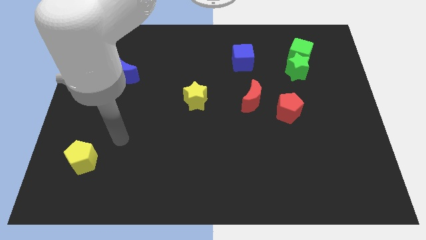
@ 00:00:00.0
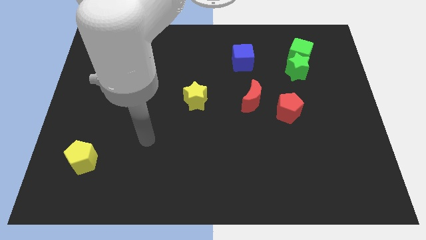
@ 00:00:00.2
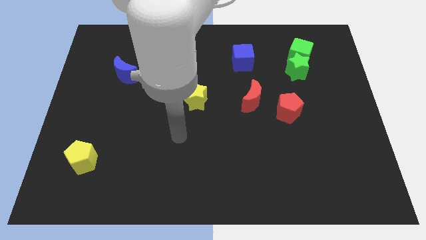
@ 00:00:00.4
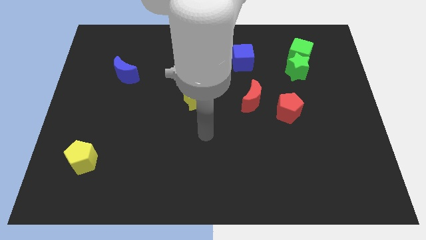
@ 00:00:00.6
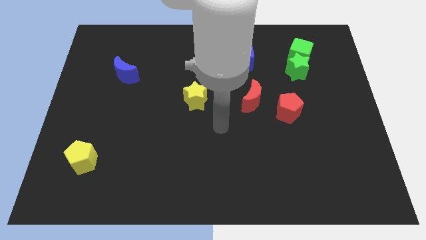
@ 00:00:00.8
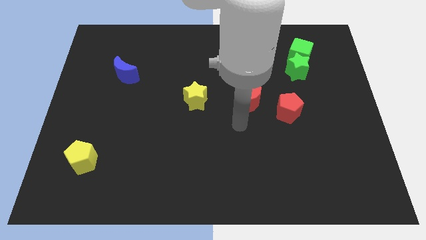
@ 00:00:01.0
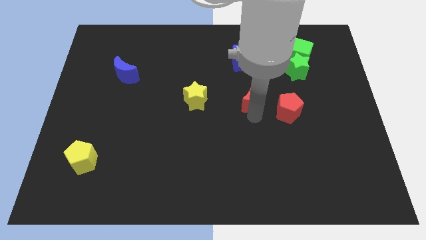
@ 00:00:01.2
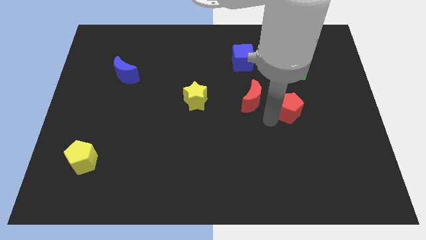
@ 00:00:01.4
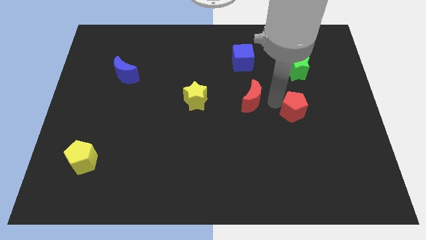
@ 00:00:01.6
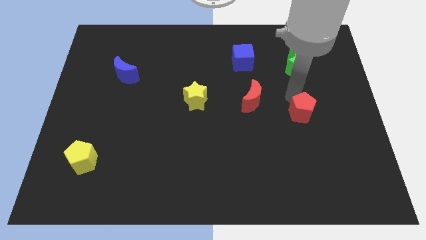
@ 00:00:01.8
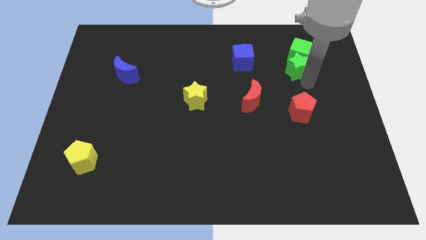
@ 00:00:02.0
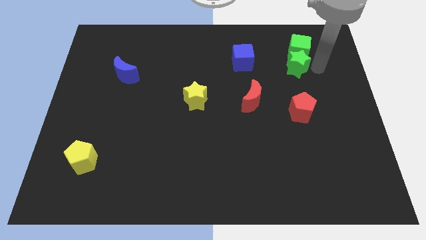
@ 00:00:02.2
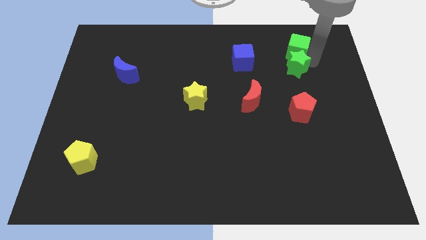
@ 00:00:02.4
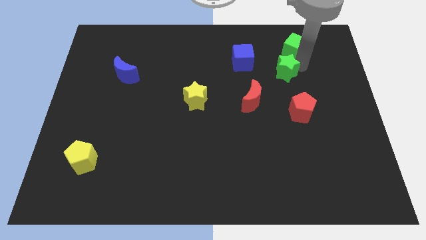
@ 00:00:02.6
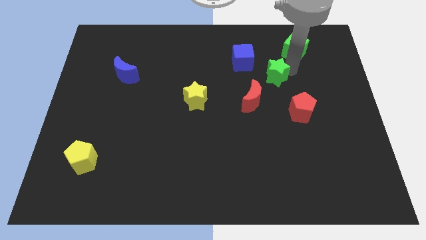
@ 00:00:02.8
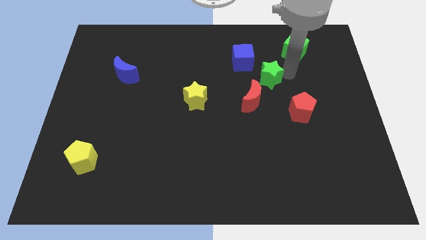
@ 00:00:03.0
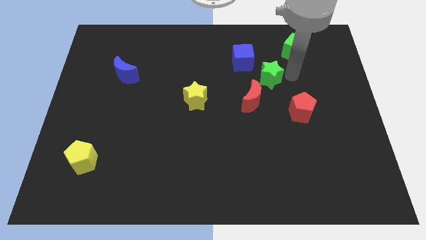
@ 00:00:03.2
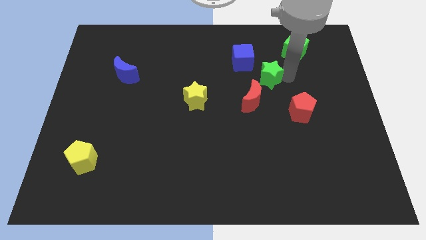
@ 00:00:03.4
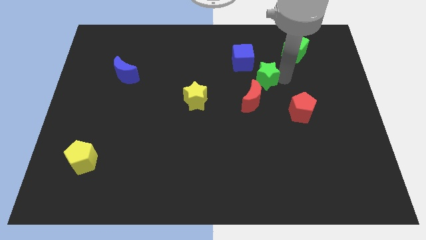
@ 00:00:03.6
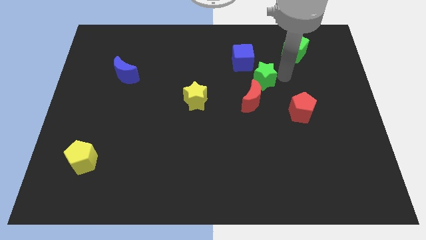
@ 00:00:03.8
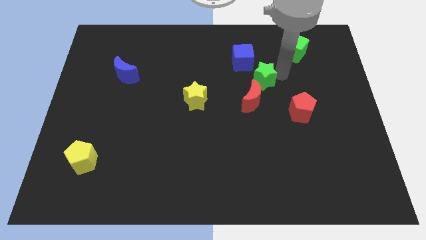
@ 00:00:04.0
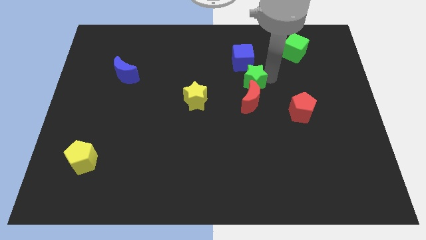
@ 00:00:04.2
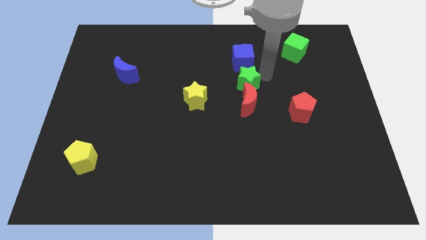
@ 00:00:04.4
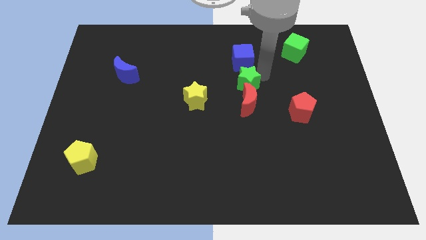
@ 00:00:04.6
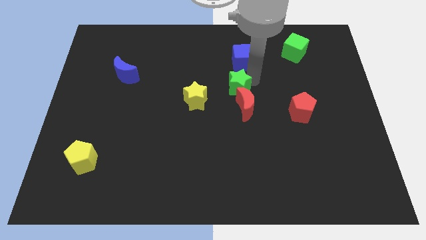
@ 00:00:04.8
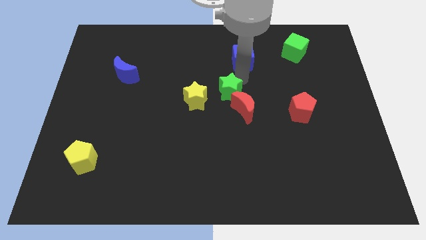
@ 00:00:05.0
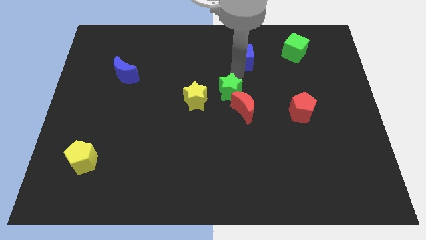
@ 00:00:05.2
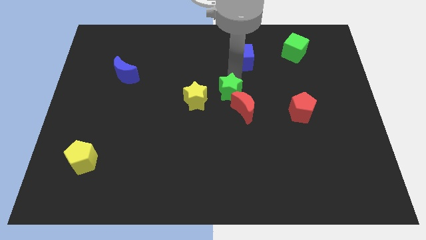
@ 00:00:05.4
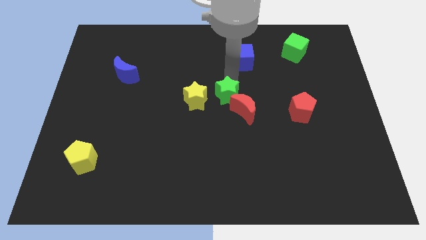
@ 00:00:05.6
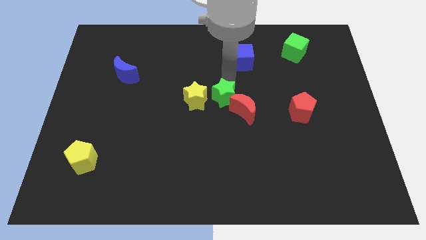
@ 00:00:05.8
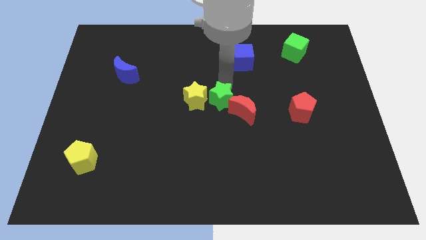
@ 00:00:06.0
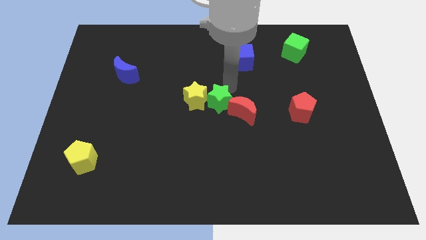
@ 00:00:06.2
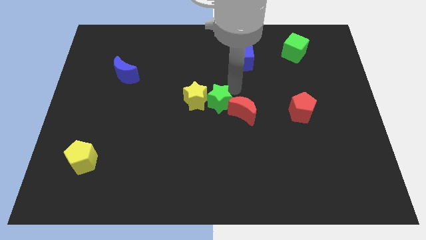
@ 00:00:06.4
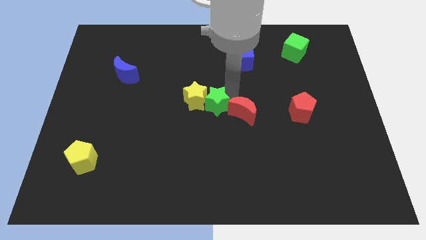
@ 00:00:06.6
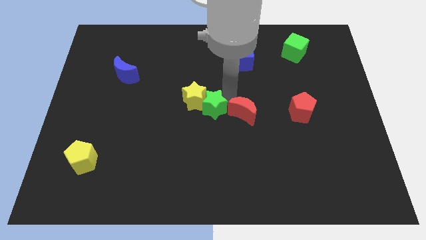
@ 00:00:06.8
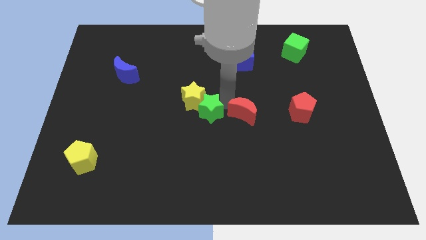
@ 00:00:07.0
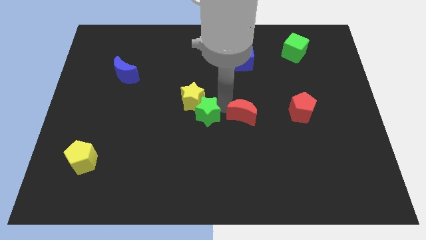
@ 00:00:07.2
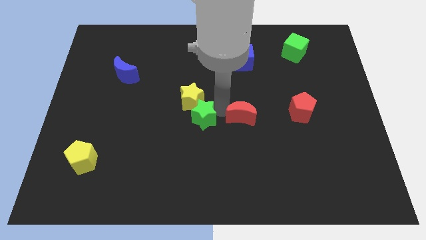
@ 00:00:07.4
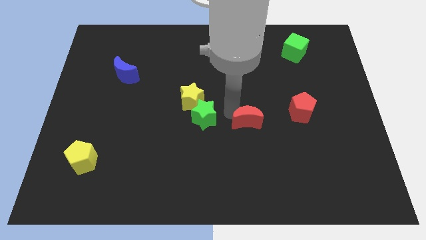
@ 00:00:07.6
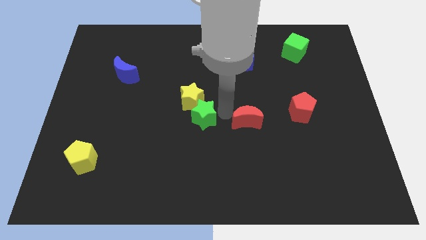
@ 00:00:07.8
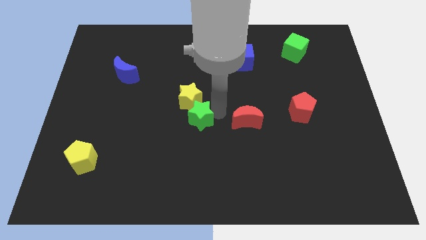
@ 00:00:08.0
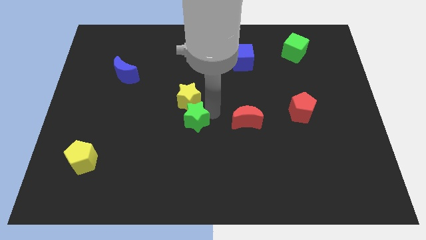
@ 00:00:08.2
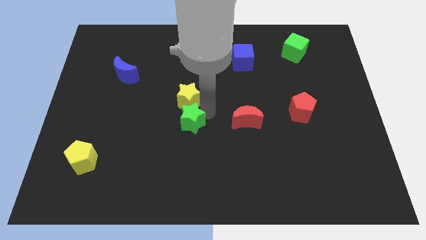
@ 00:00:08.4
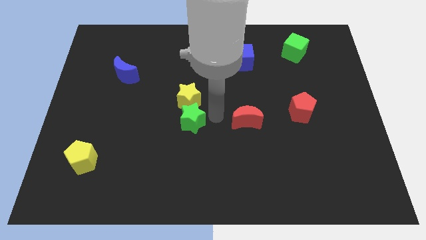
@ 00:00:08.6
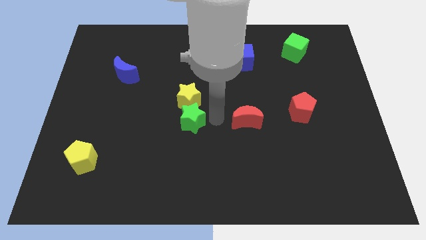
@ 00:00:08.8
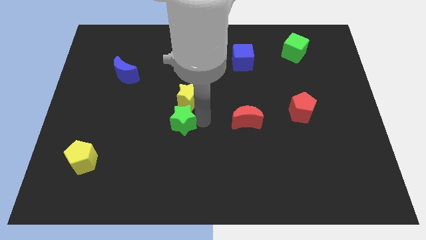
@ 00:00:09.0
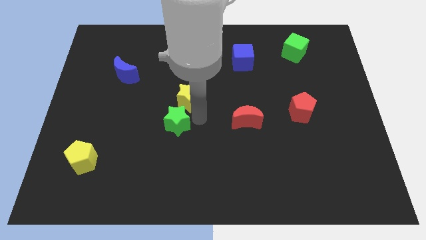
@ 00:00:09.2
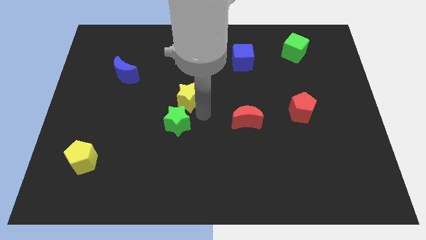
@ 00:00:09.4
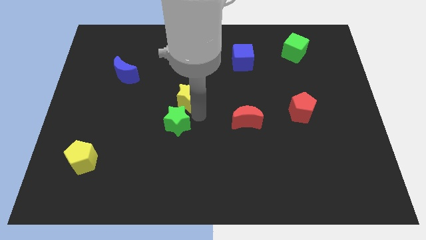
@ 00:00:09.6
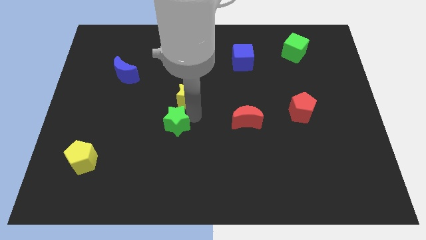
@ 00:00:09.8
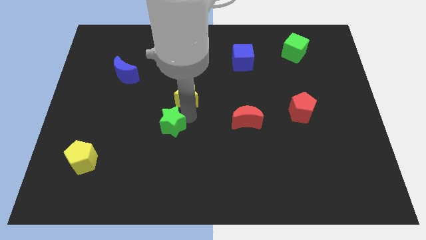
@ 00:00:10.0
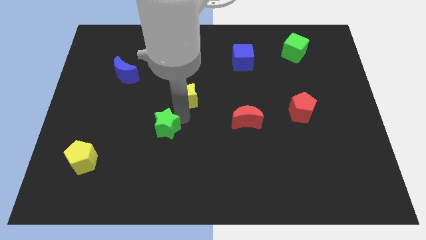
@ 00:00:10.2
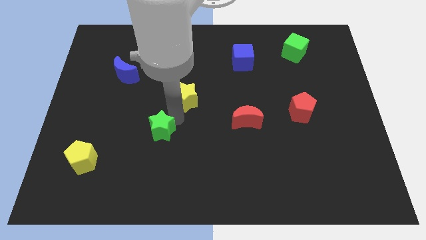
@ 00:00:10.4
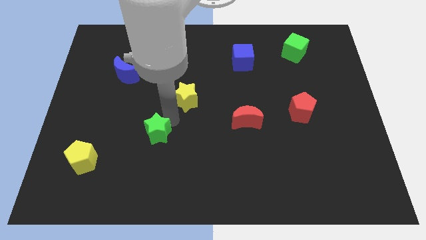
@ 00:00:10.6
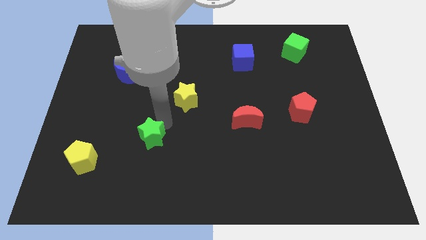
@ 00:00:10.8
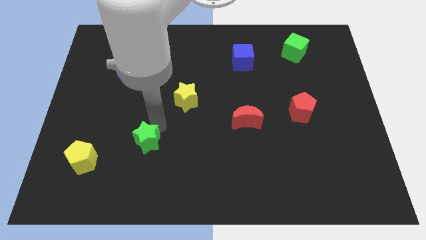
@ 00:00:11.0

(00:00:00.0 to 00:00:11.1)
slide the green star right of the yellow pentagon

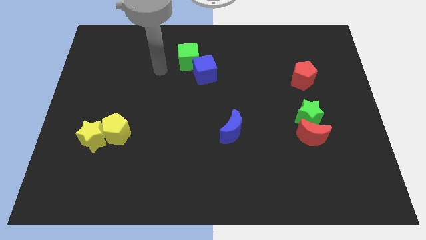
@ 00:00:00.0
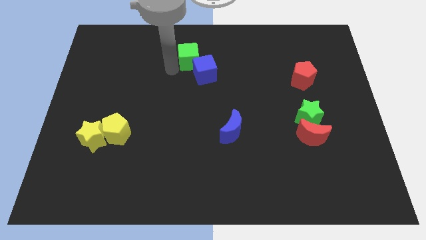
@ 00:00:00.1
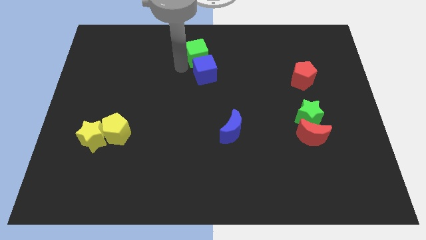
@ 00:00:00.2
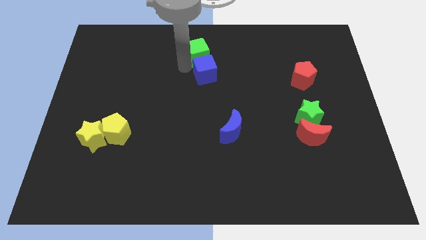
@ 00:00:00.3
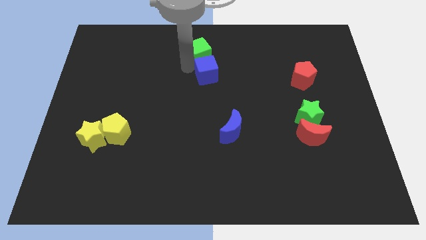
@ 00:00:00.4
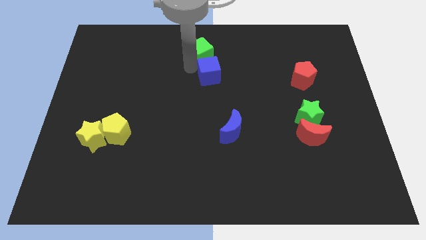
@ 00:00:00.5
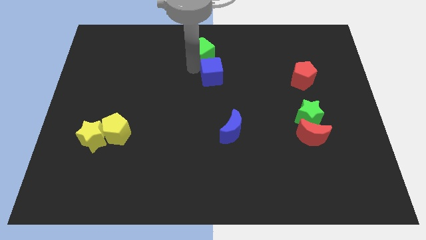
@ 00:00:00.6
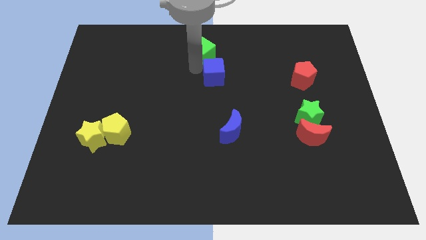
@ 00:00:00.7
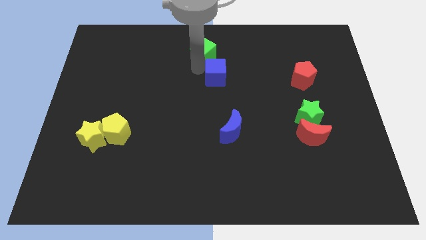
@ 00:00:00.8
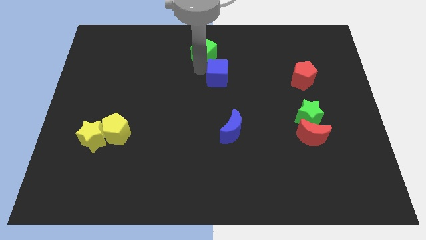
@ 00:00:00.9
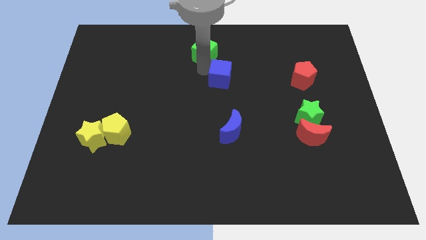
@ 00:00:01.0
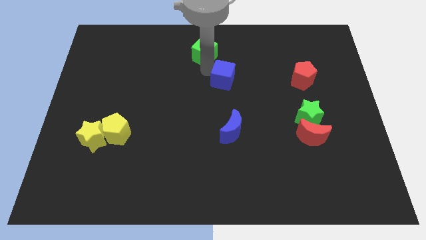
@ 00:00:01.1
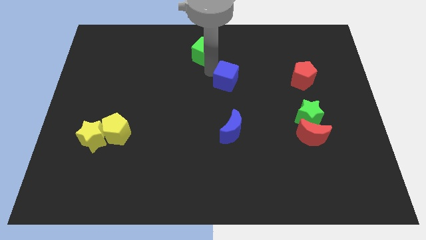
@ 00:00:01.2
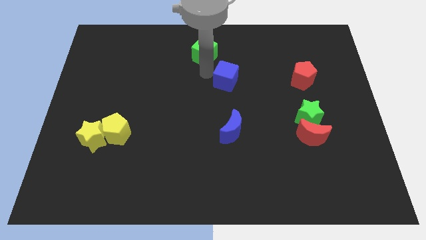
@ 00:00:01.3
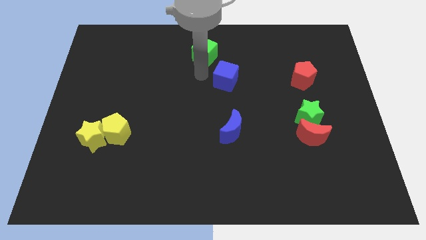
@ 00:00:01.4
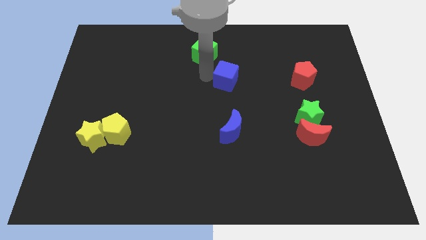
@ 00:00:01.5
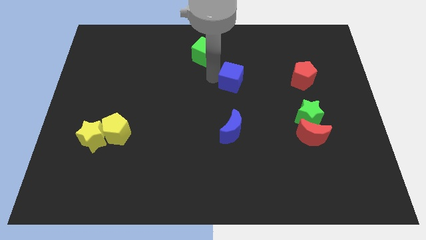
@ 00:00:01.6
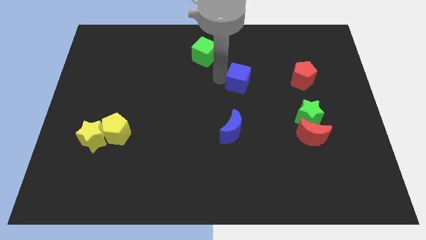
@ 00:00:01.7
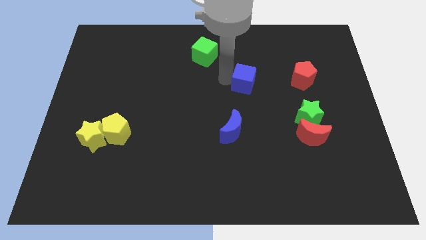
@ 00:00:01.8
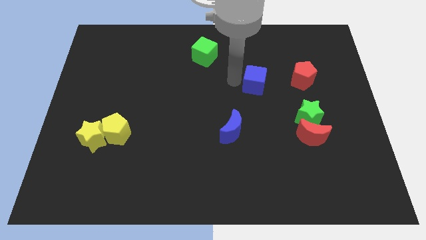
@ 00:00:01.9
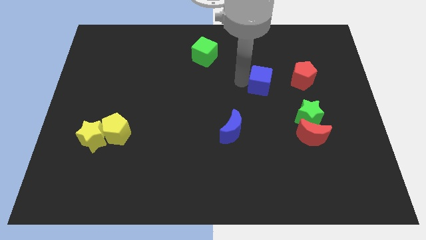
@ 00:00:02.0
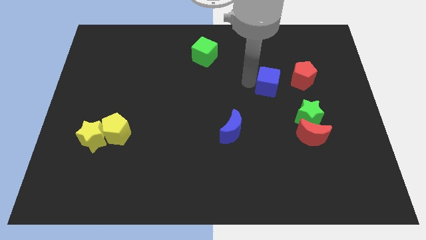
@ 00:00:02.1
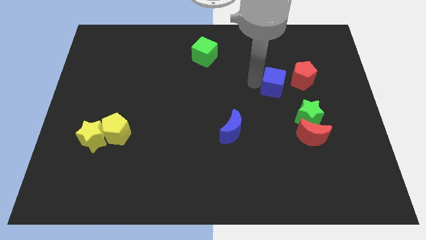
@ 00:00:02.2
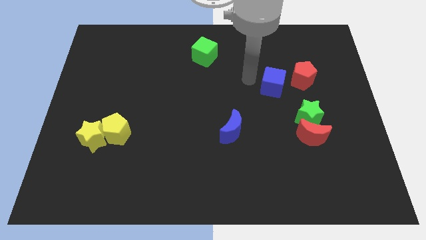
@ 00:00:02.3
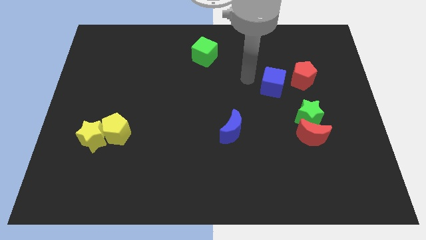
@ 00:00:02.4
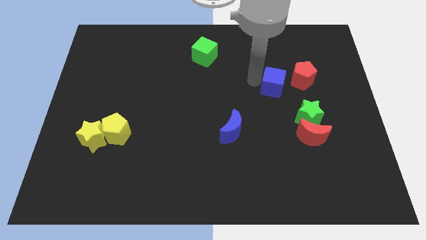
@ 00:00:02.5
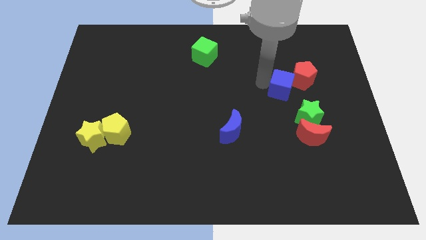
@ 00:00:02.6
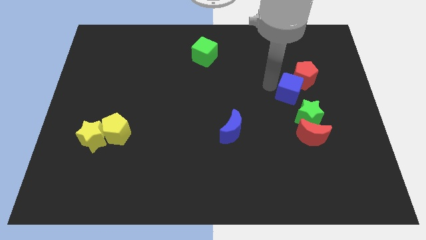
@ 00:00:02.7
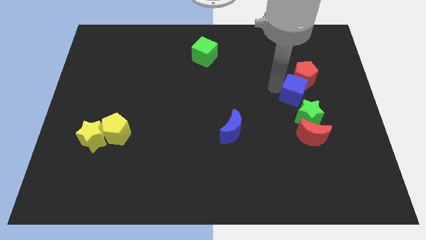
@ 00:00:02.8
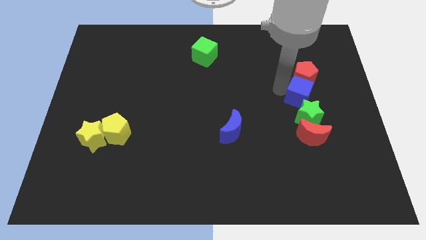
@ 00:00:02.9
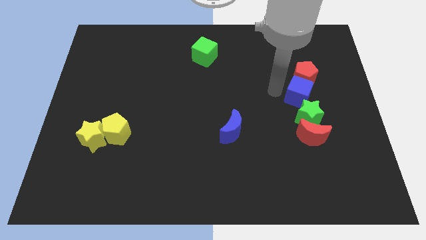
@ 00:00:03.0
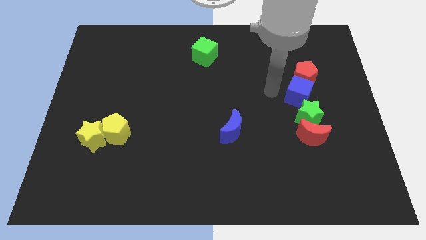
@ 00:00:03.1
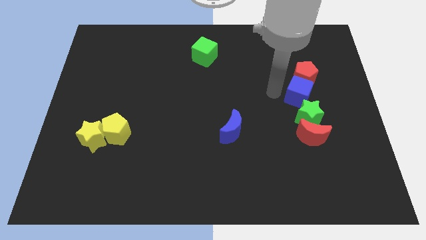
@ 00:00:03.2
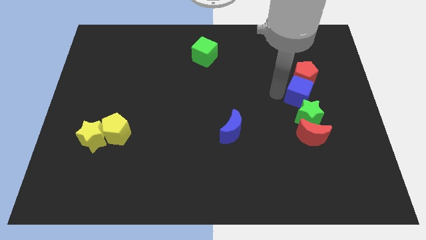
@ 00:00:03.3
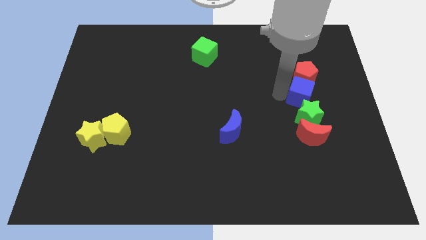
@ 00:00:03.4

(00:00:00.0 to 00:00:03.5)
slide the blue cube to the top right of the green star
